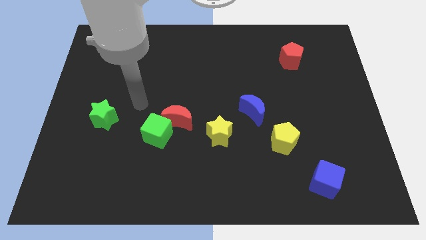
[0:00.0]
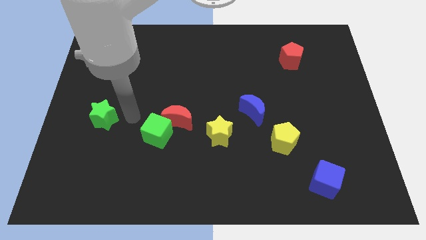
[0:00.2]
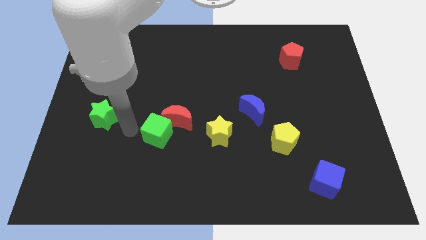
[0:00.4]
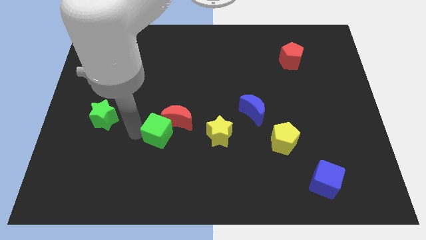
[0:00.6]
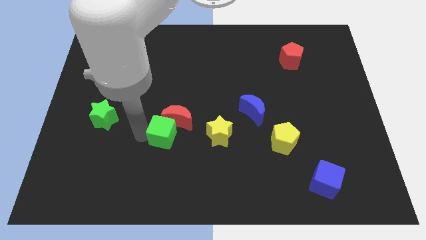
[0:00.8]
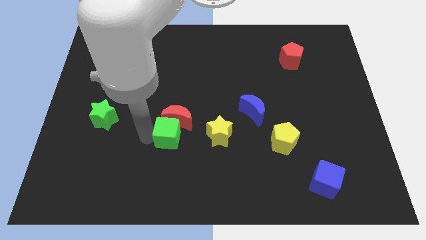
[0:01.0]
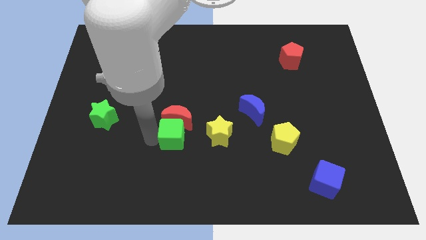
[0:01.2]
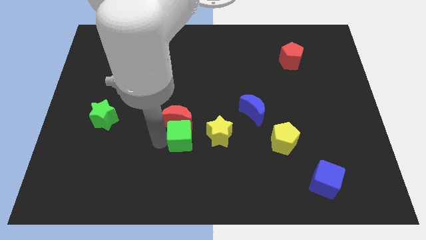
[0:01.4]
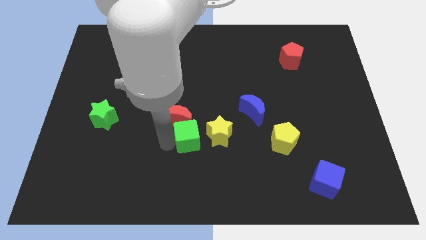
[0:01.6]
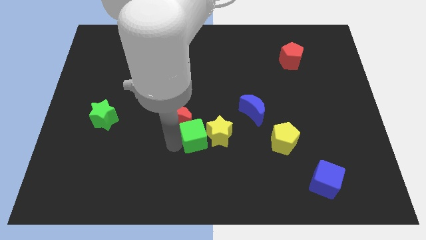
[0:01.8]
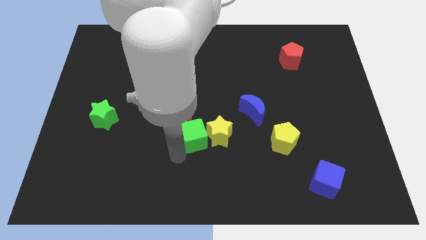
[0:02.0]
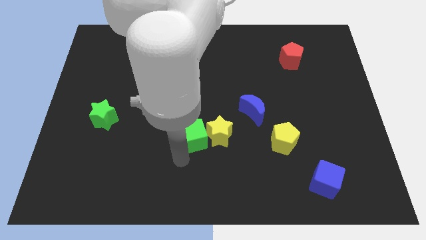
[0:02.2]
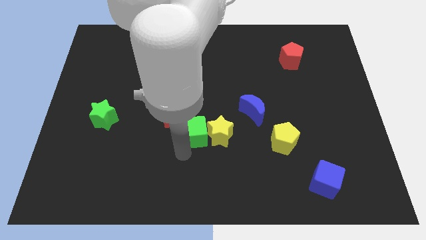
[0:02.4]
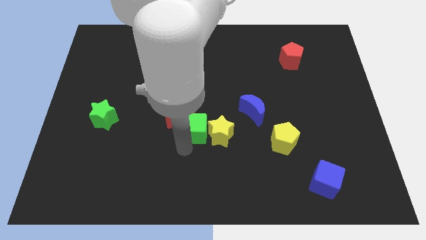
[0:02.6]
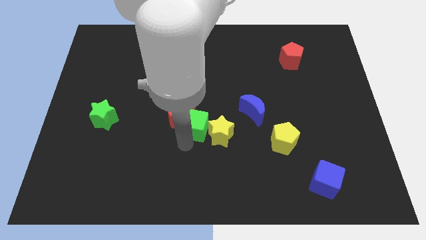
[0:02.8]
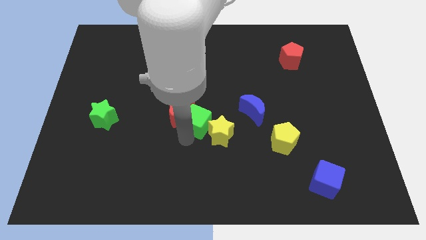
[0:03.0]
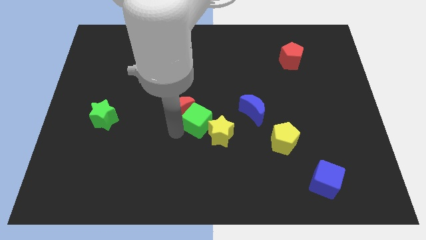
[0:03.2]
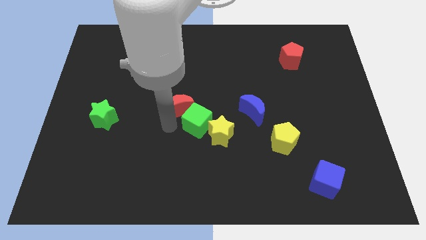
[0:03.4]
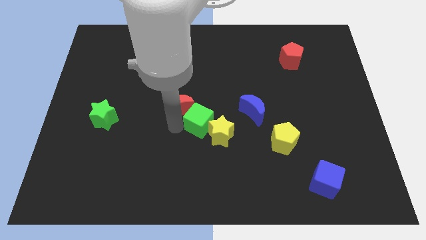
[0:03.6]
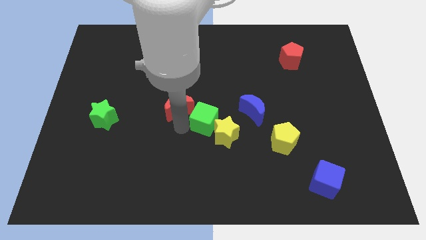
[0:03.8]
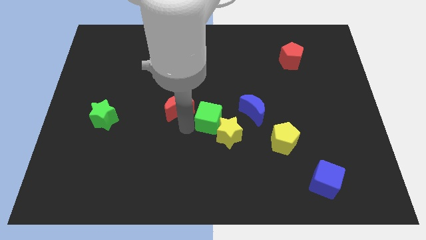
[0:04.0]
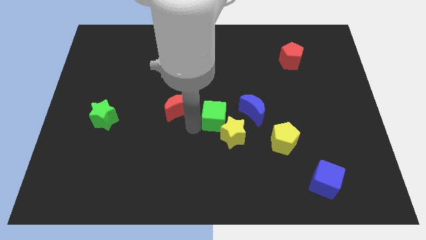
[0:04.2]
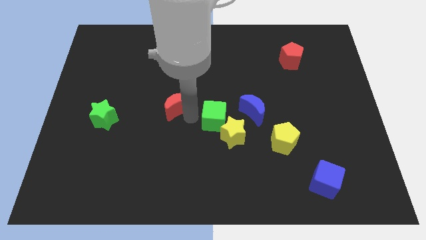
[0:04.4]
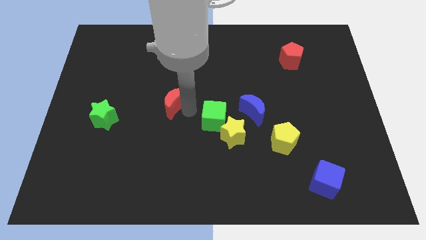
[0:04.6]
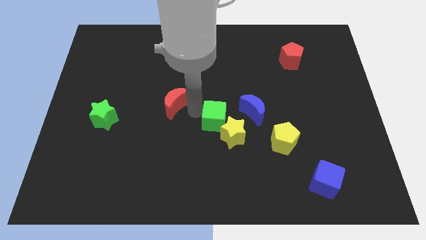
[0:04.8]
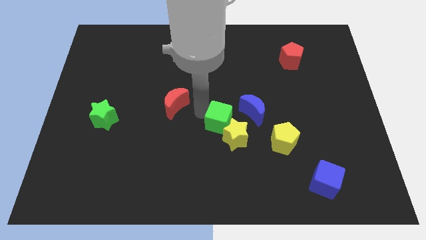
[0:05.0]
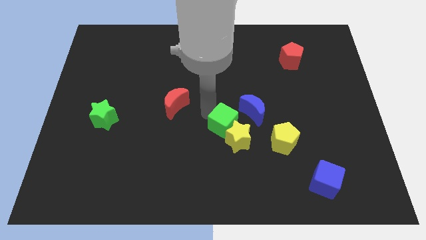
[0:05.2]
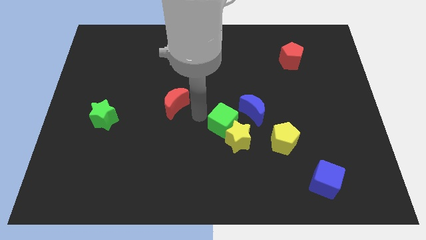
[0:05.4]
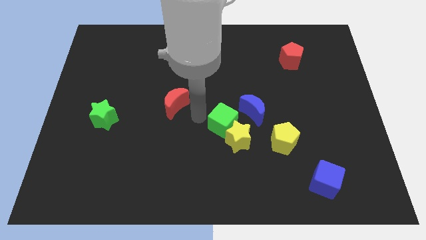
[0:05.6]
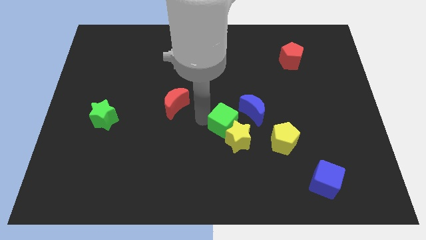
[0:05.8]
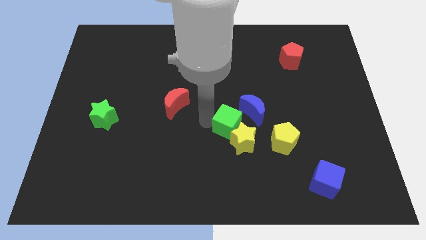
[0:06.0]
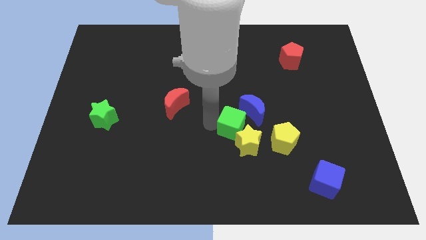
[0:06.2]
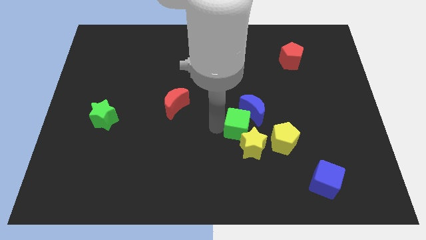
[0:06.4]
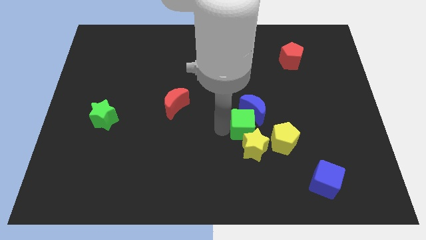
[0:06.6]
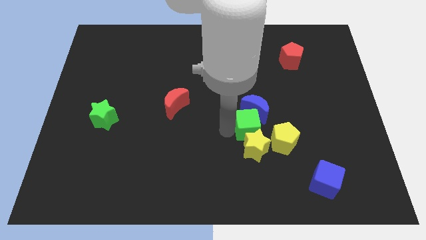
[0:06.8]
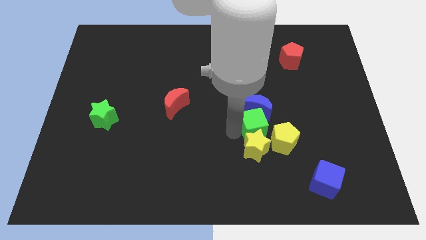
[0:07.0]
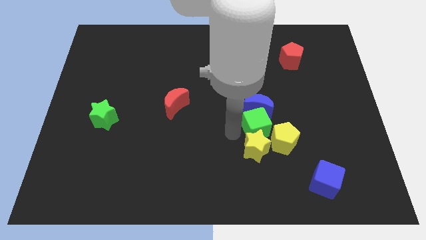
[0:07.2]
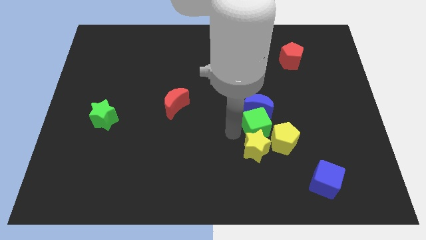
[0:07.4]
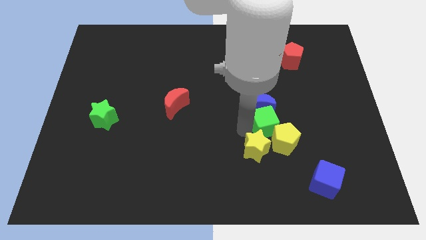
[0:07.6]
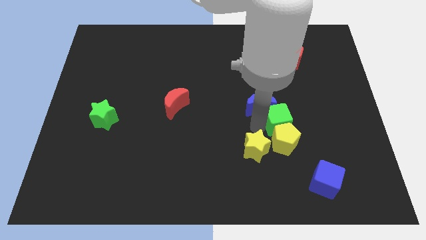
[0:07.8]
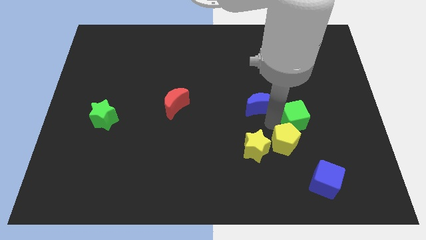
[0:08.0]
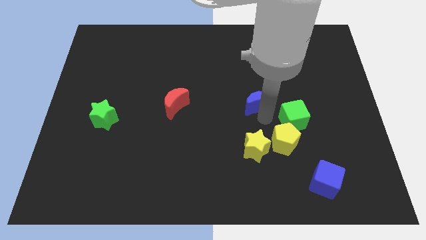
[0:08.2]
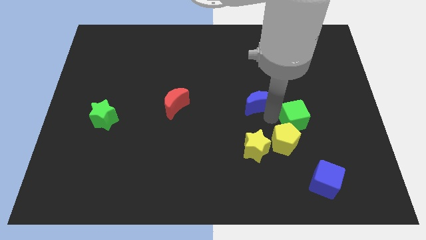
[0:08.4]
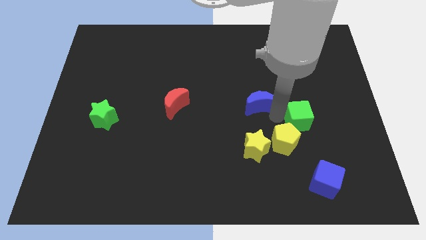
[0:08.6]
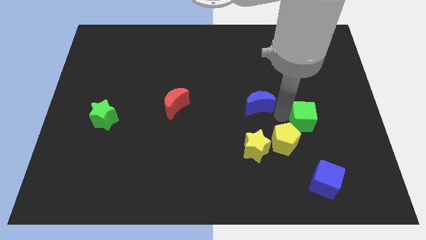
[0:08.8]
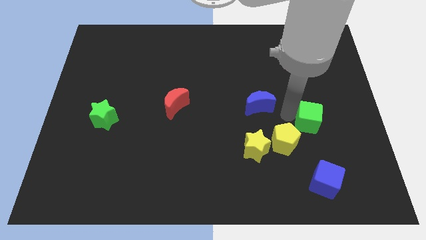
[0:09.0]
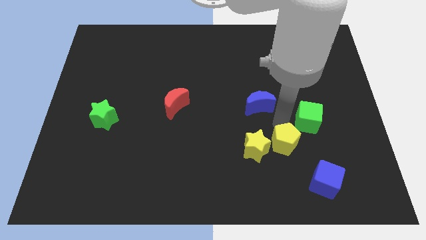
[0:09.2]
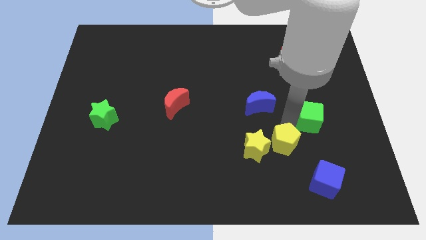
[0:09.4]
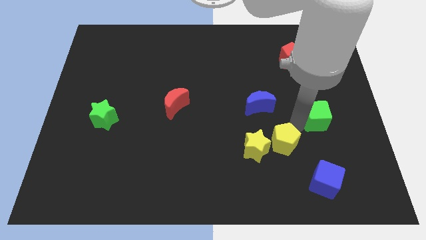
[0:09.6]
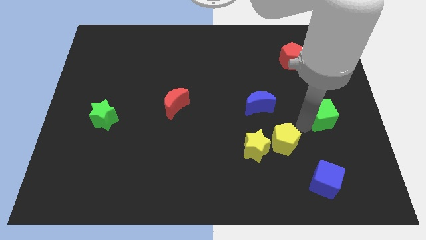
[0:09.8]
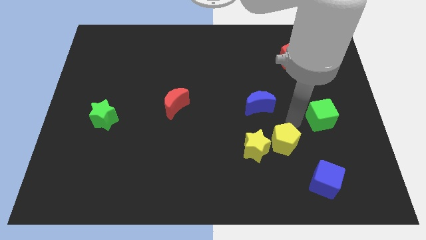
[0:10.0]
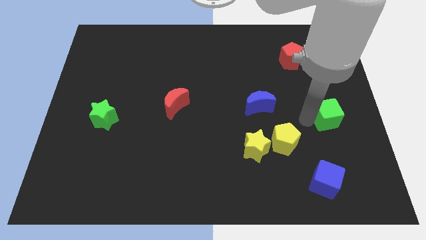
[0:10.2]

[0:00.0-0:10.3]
slide the green cube to the right side

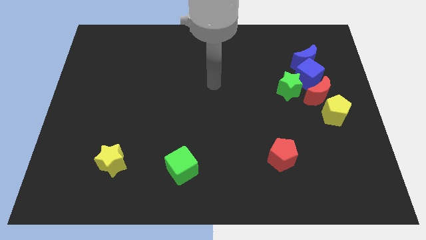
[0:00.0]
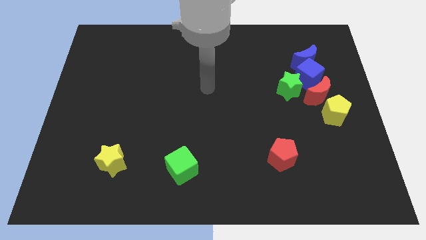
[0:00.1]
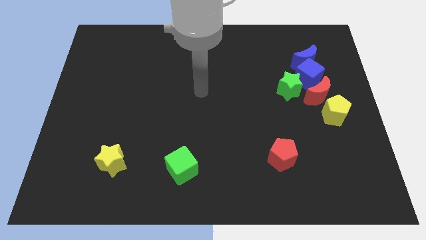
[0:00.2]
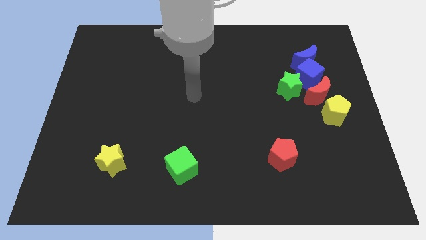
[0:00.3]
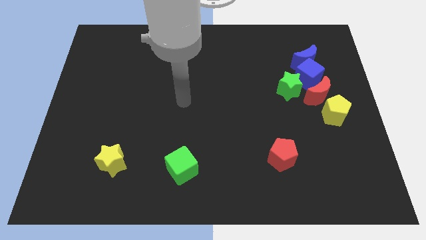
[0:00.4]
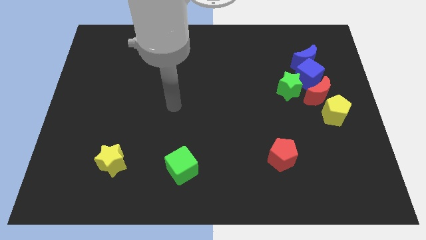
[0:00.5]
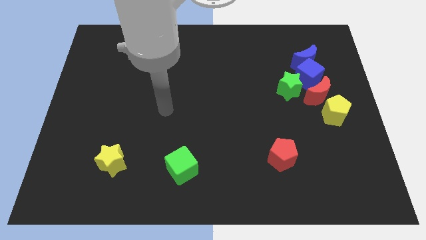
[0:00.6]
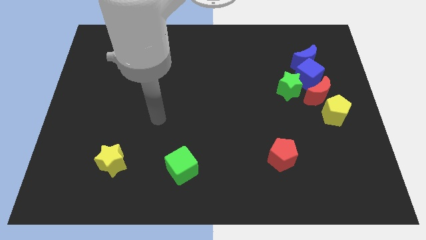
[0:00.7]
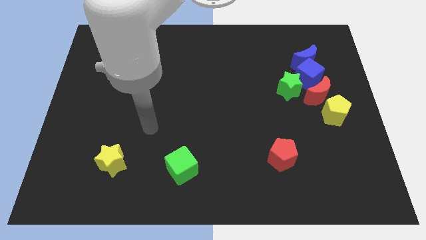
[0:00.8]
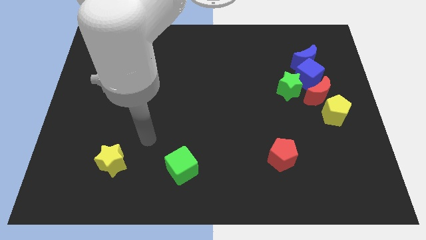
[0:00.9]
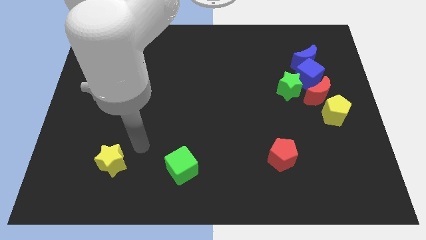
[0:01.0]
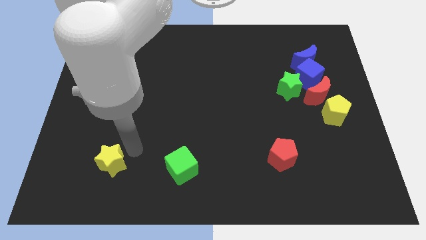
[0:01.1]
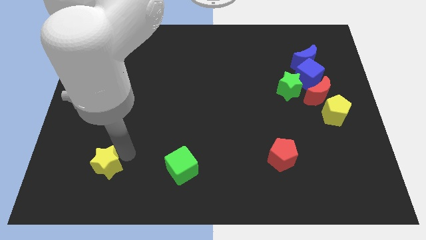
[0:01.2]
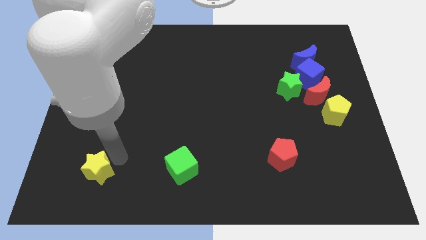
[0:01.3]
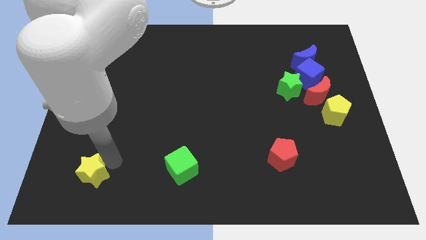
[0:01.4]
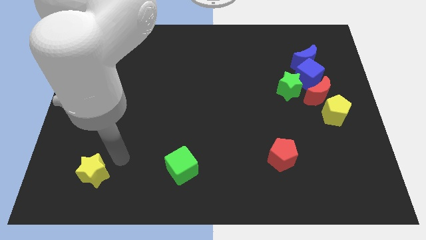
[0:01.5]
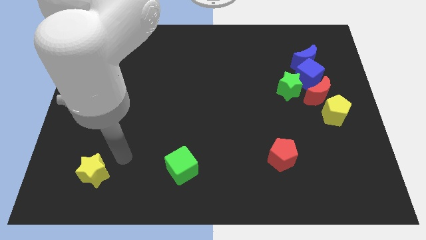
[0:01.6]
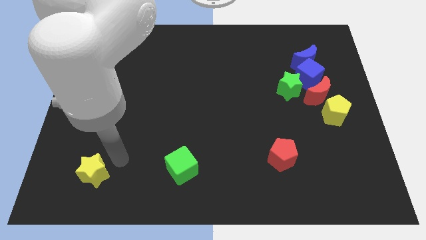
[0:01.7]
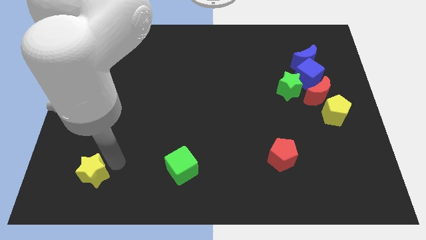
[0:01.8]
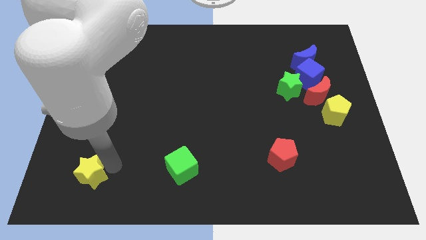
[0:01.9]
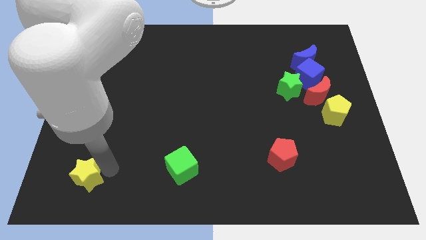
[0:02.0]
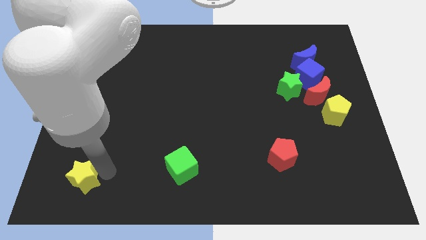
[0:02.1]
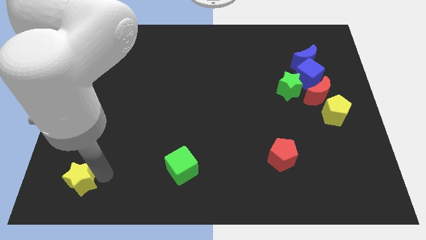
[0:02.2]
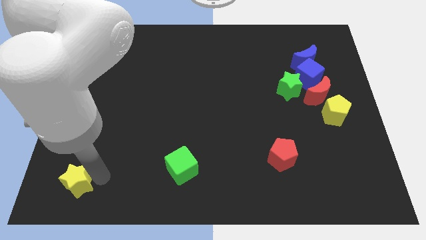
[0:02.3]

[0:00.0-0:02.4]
move the yellow star to the lower left corner
